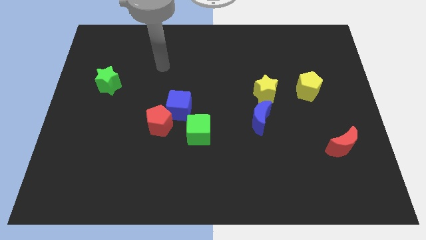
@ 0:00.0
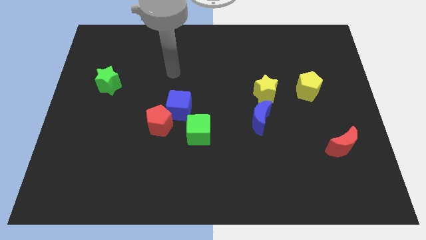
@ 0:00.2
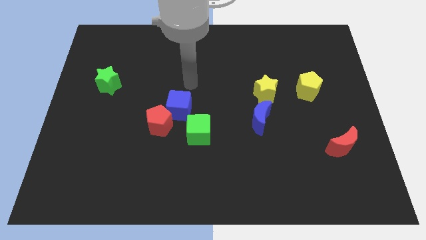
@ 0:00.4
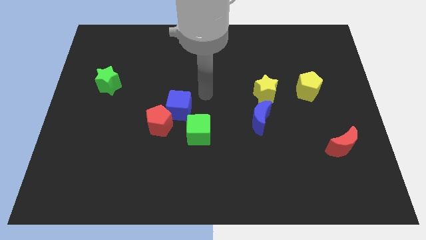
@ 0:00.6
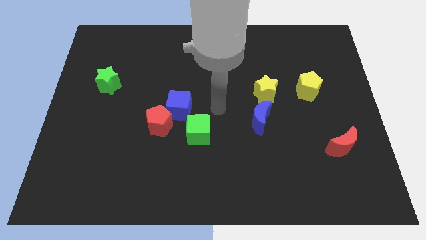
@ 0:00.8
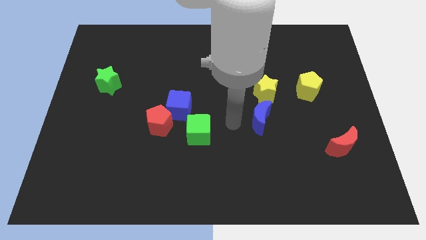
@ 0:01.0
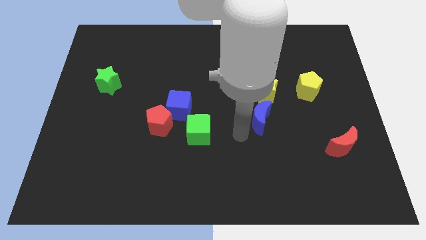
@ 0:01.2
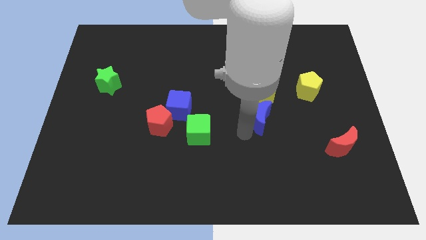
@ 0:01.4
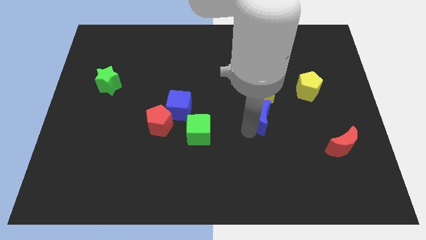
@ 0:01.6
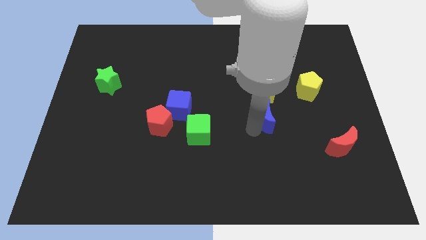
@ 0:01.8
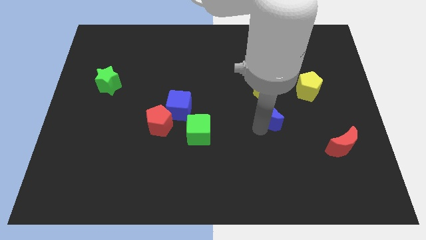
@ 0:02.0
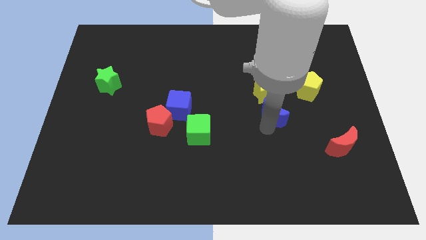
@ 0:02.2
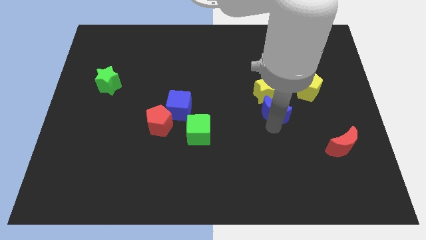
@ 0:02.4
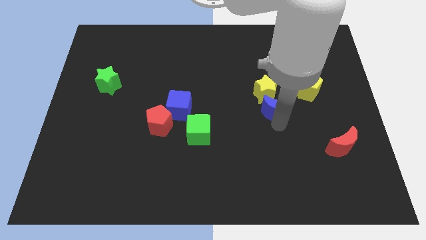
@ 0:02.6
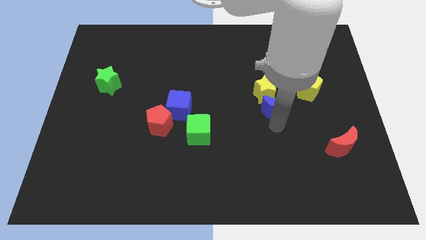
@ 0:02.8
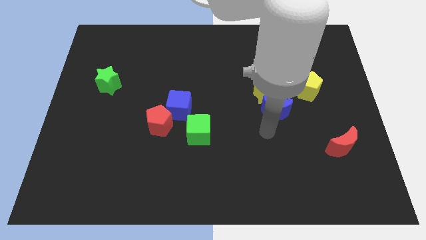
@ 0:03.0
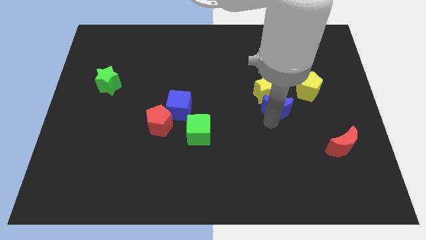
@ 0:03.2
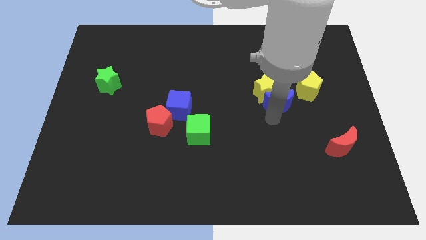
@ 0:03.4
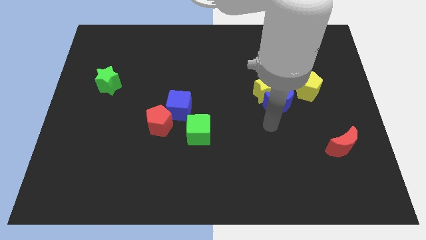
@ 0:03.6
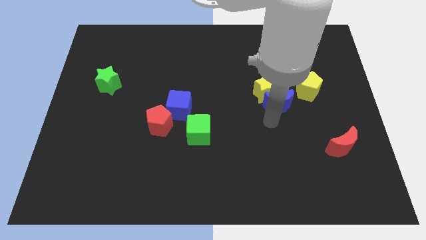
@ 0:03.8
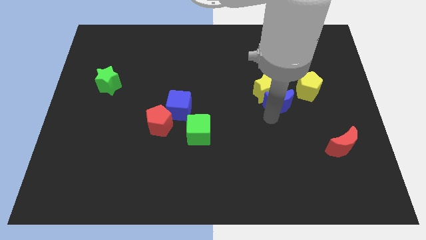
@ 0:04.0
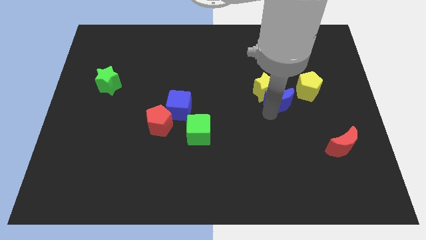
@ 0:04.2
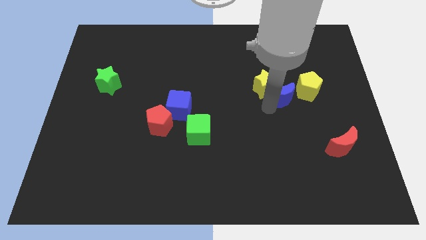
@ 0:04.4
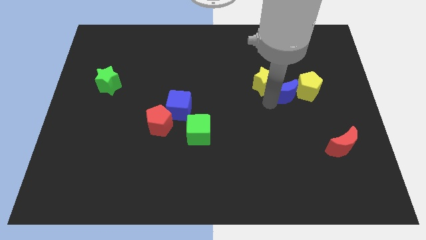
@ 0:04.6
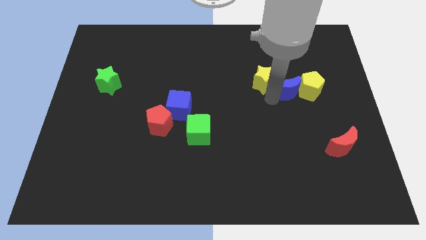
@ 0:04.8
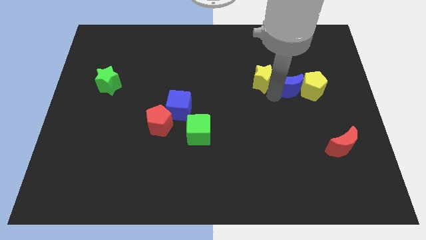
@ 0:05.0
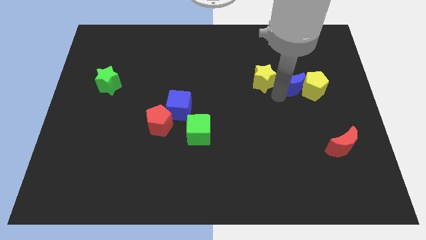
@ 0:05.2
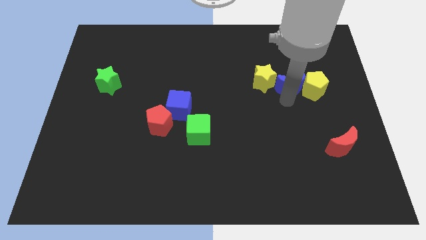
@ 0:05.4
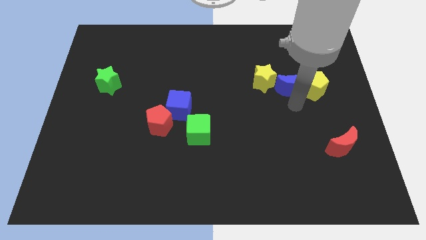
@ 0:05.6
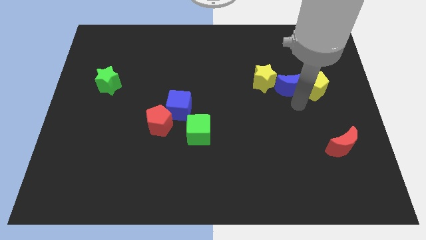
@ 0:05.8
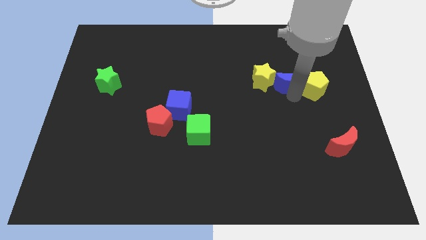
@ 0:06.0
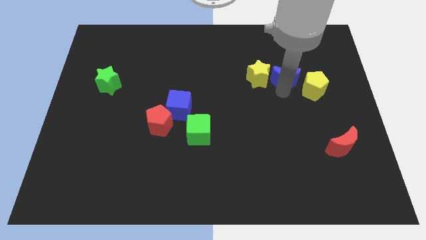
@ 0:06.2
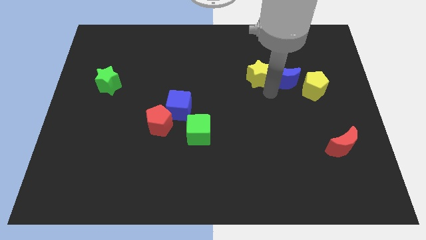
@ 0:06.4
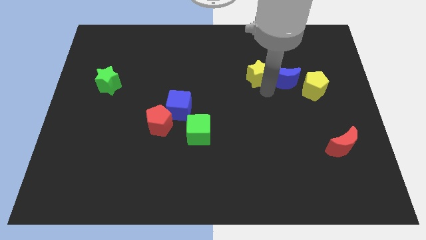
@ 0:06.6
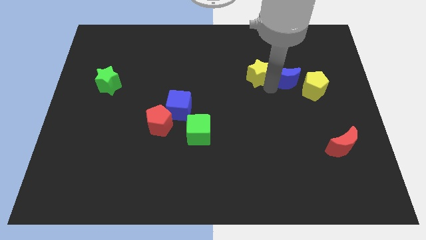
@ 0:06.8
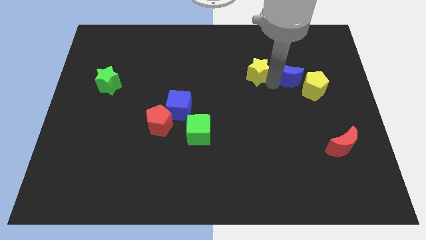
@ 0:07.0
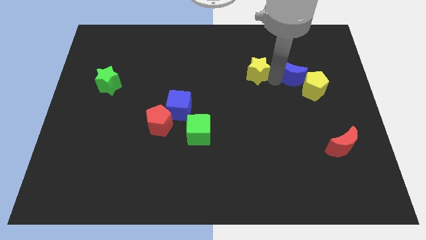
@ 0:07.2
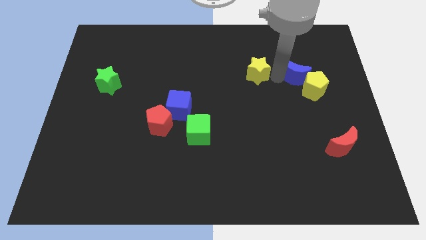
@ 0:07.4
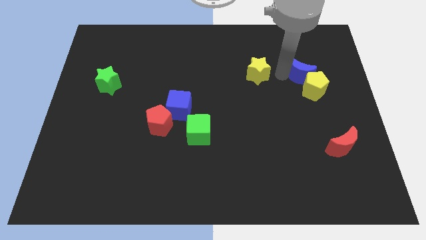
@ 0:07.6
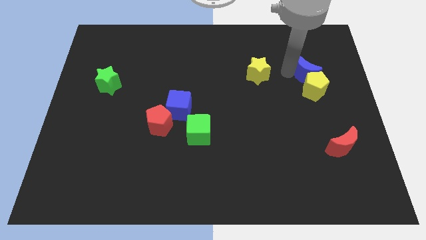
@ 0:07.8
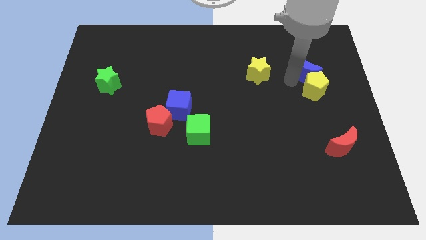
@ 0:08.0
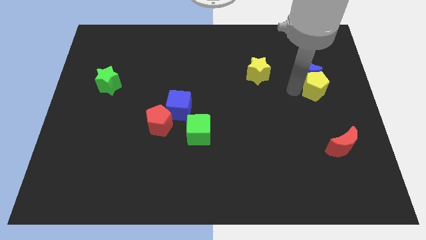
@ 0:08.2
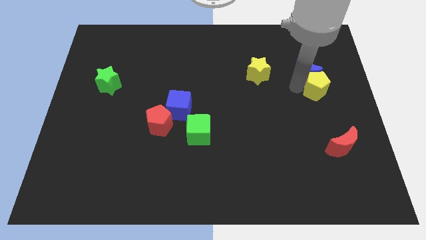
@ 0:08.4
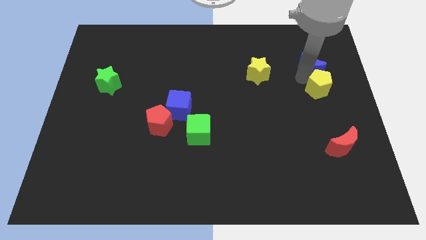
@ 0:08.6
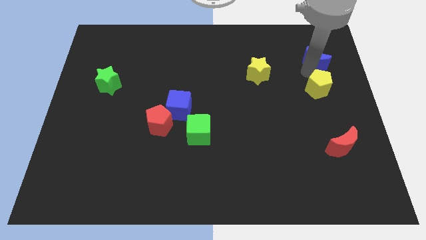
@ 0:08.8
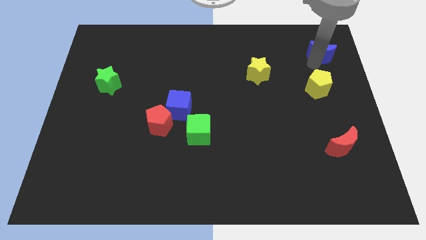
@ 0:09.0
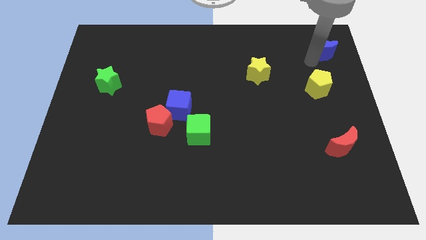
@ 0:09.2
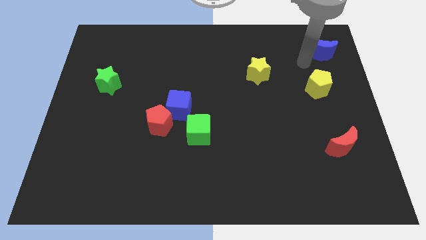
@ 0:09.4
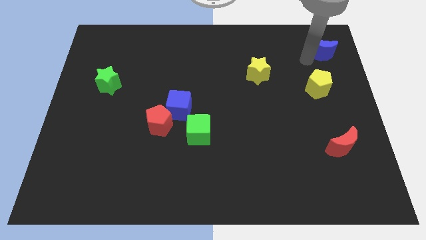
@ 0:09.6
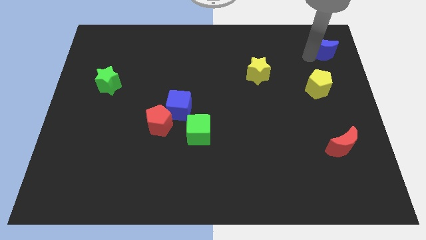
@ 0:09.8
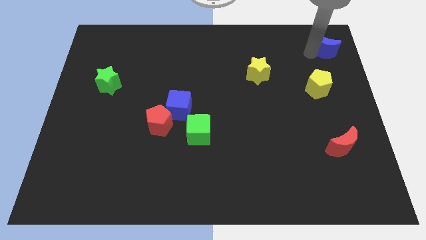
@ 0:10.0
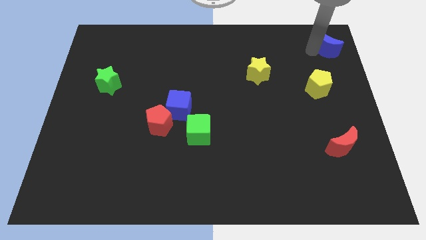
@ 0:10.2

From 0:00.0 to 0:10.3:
put the blue moon to the upper right corner

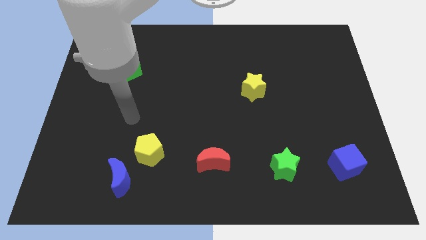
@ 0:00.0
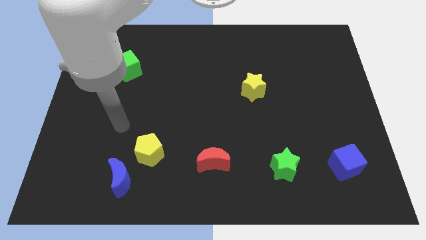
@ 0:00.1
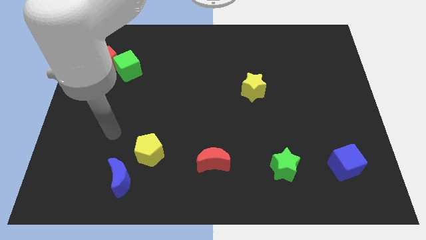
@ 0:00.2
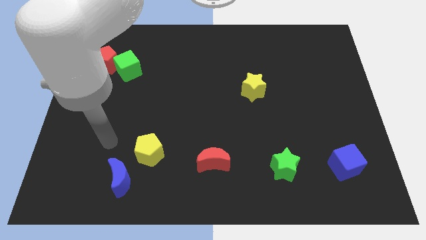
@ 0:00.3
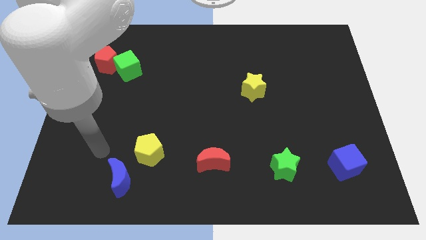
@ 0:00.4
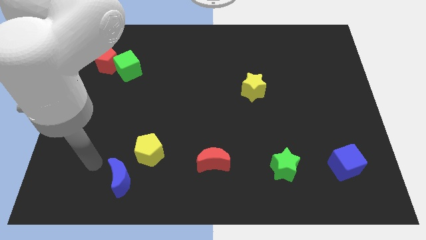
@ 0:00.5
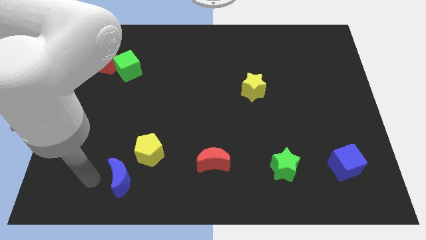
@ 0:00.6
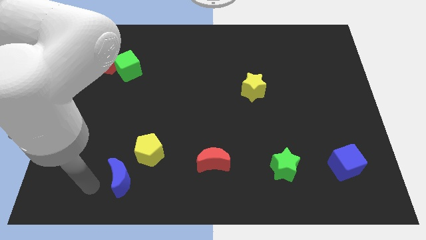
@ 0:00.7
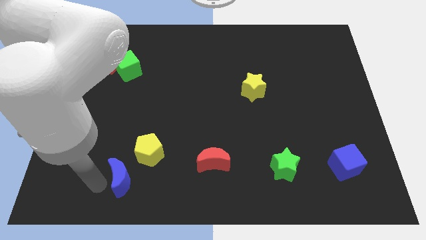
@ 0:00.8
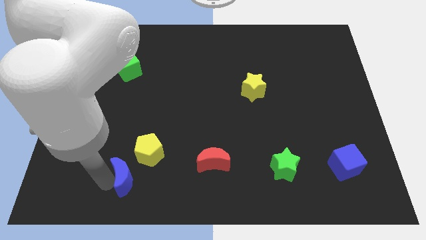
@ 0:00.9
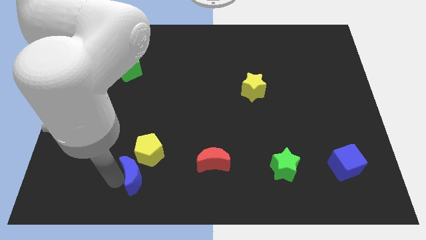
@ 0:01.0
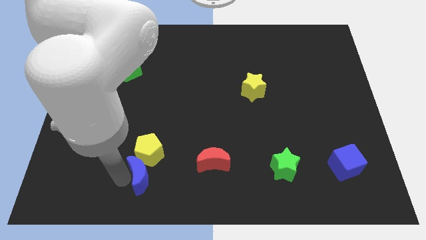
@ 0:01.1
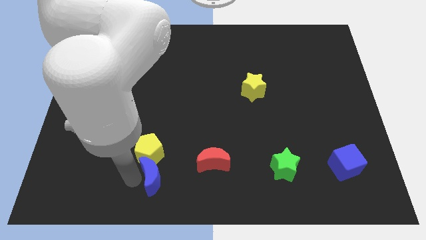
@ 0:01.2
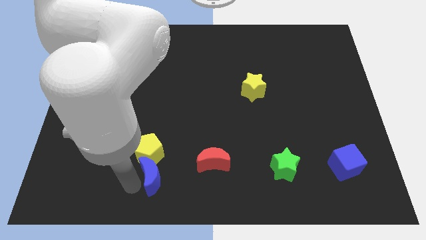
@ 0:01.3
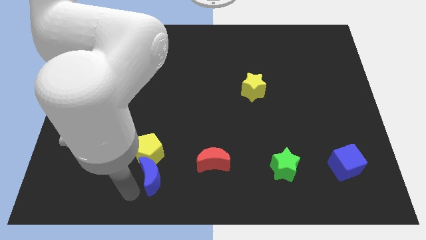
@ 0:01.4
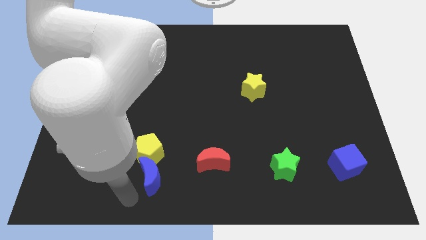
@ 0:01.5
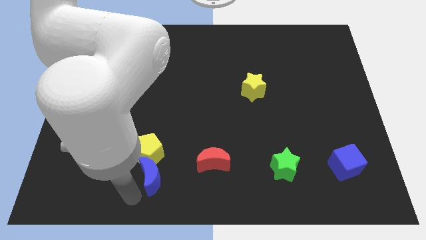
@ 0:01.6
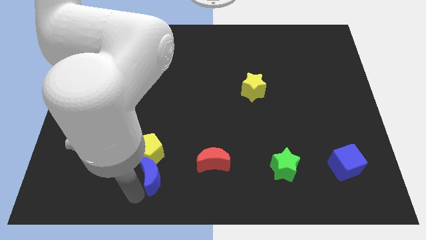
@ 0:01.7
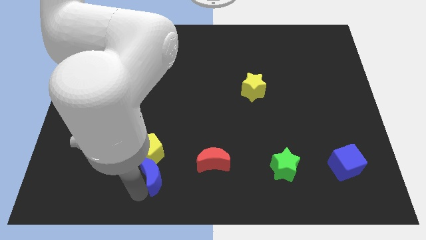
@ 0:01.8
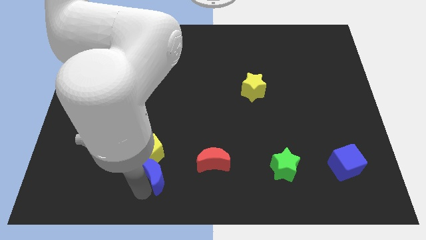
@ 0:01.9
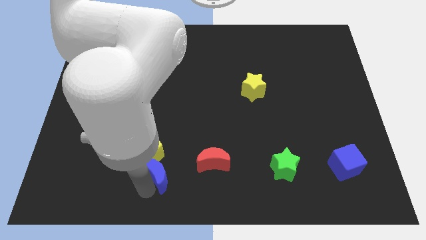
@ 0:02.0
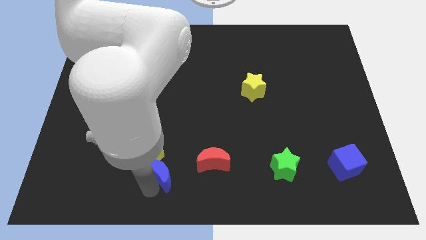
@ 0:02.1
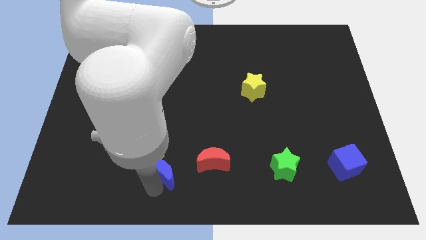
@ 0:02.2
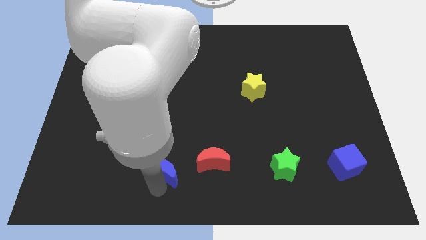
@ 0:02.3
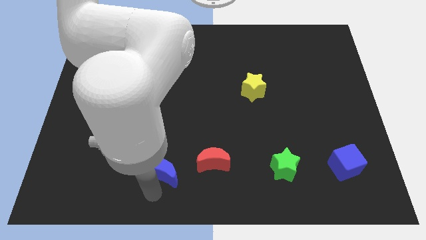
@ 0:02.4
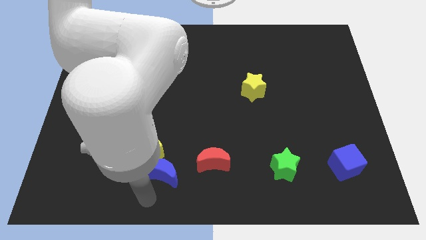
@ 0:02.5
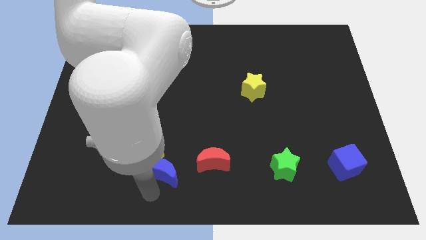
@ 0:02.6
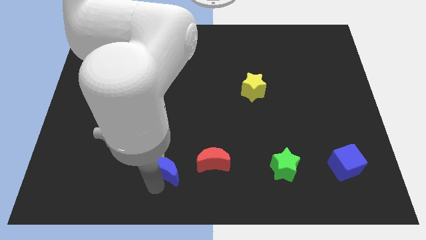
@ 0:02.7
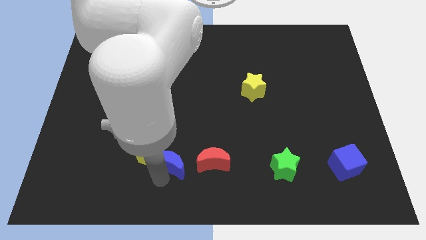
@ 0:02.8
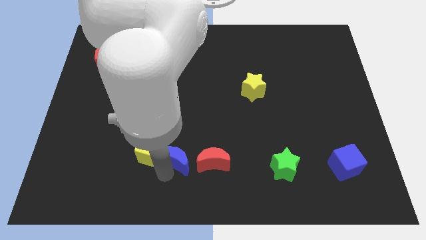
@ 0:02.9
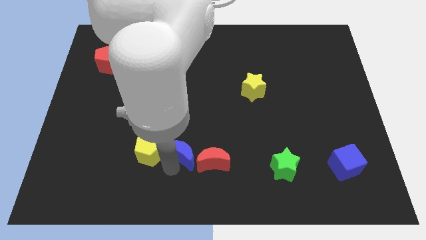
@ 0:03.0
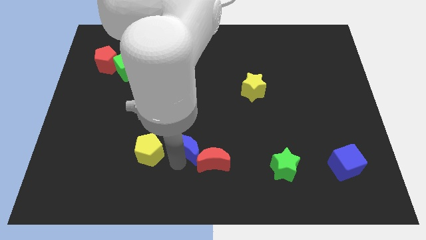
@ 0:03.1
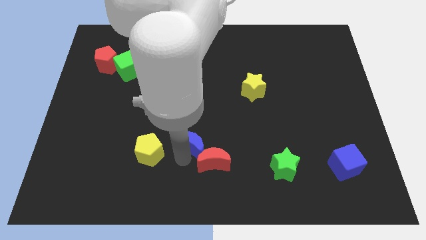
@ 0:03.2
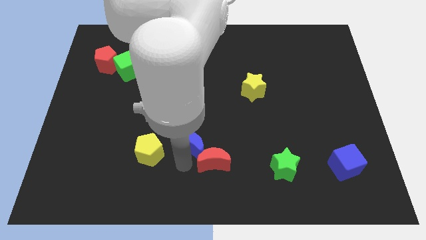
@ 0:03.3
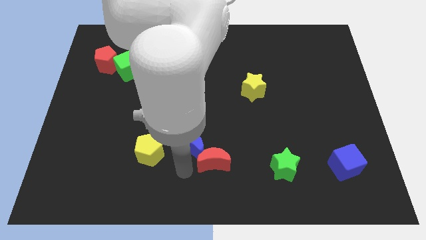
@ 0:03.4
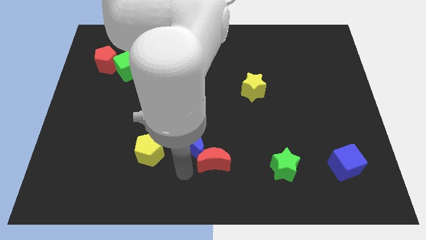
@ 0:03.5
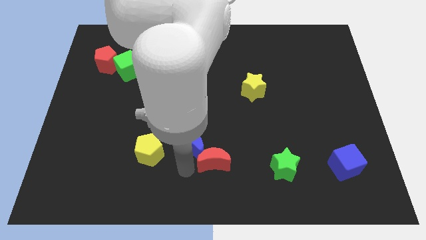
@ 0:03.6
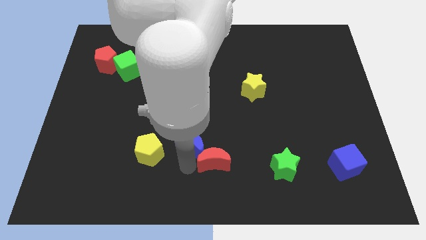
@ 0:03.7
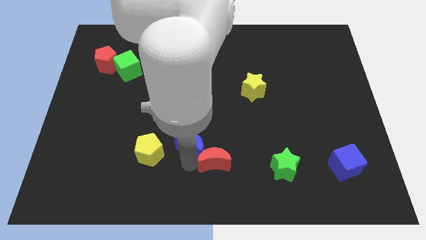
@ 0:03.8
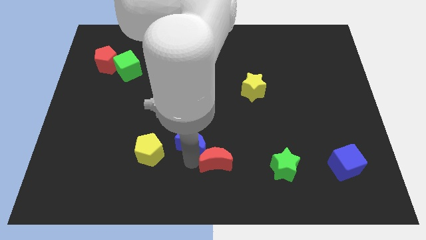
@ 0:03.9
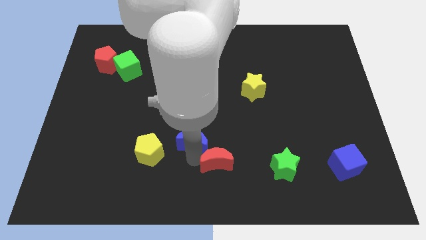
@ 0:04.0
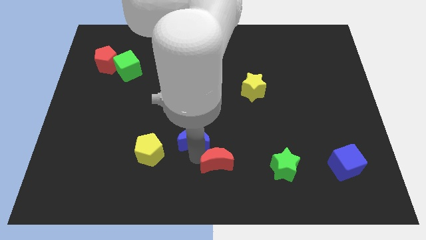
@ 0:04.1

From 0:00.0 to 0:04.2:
push the blue moon to the middle
